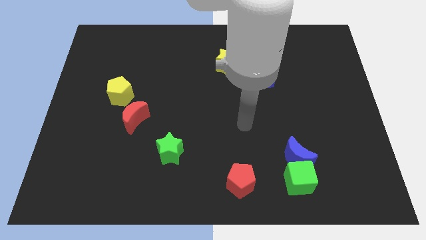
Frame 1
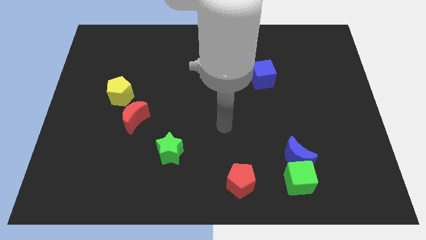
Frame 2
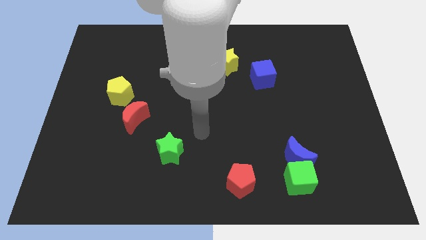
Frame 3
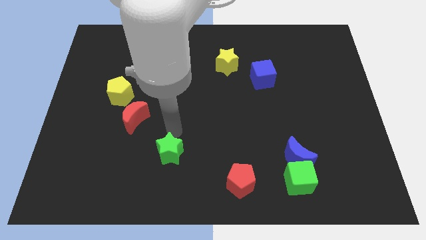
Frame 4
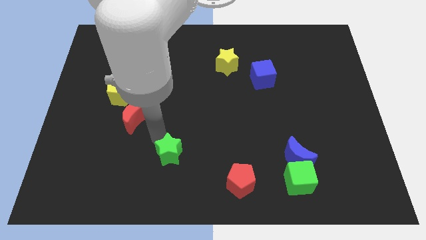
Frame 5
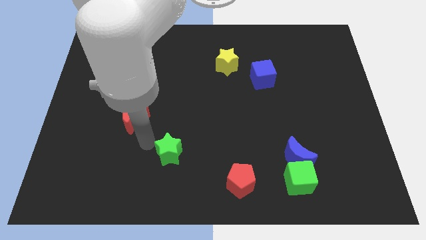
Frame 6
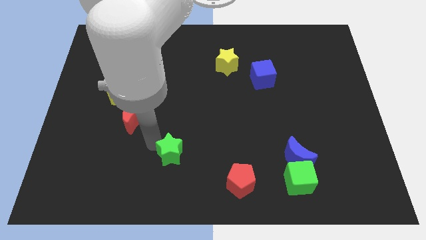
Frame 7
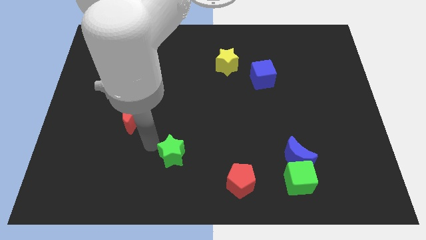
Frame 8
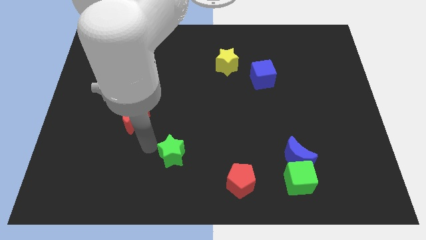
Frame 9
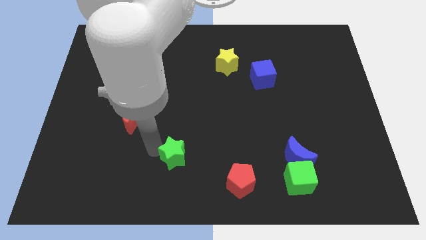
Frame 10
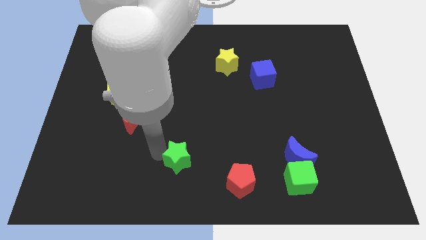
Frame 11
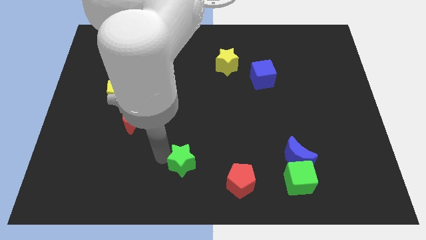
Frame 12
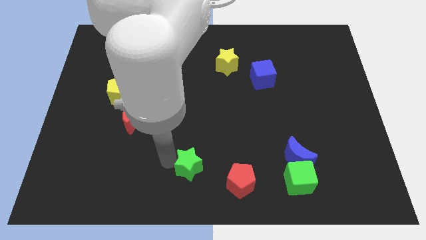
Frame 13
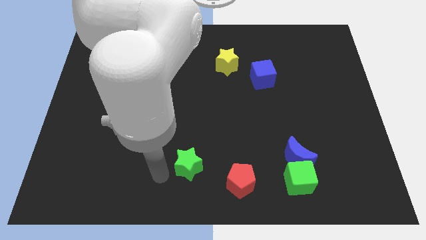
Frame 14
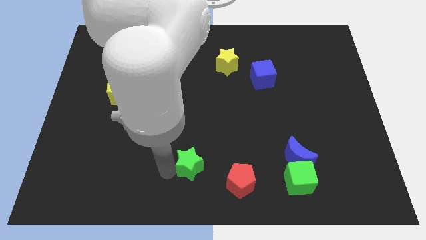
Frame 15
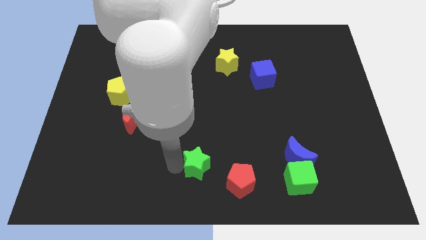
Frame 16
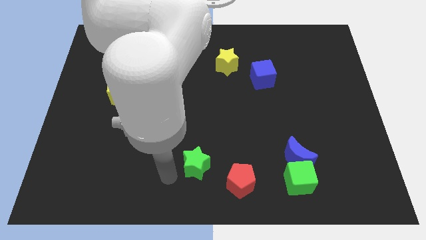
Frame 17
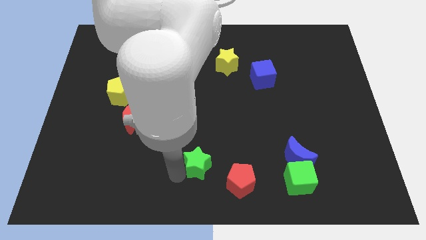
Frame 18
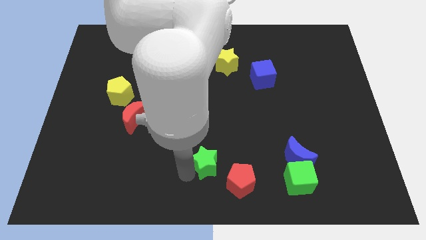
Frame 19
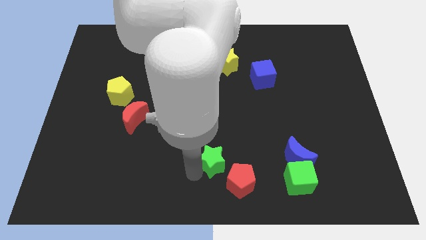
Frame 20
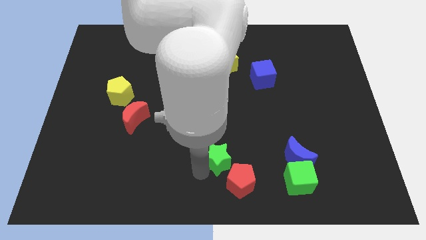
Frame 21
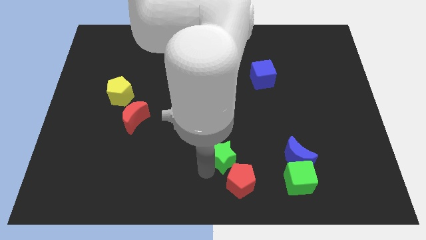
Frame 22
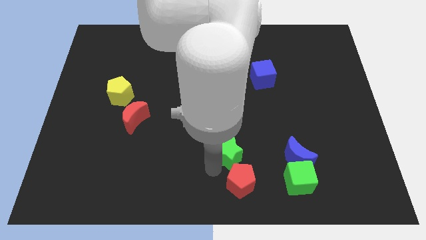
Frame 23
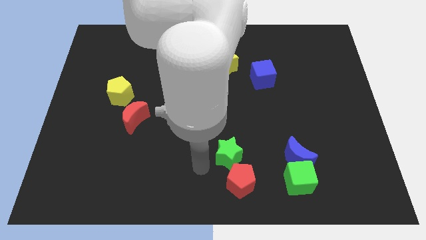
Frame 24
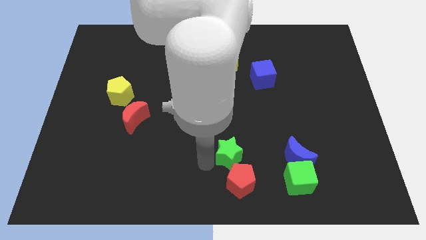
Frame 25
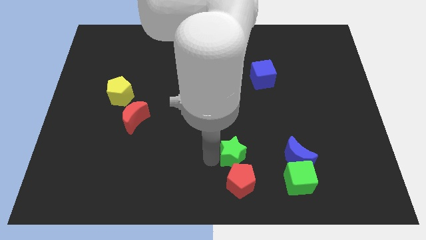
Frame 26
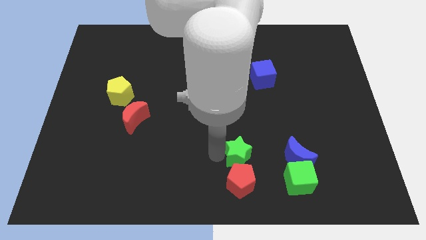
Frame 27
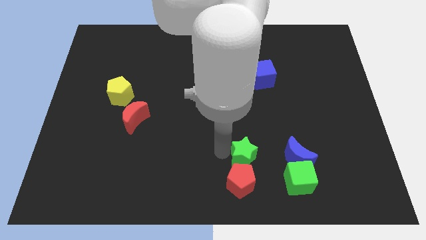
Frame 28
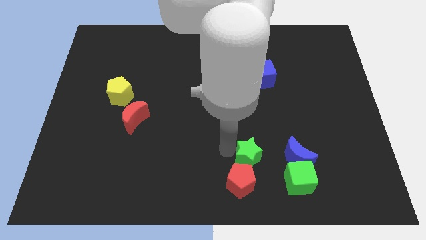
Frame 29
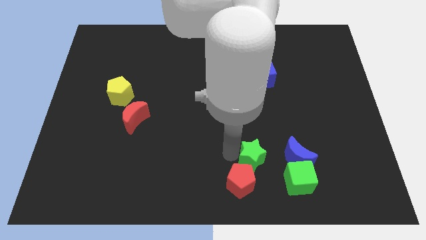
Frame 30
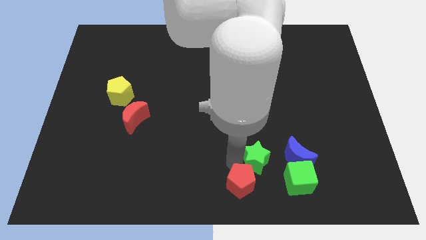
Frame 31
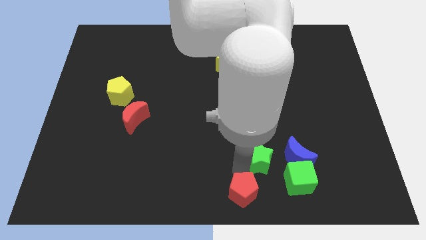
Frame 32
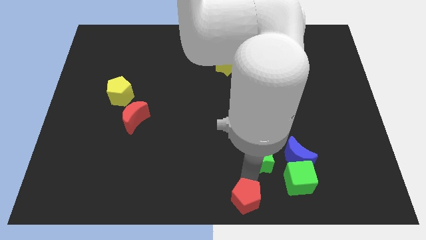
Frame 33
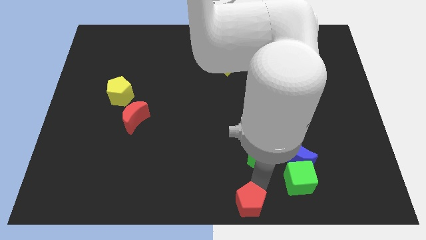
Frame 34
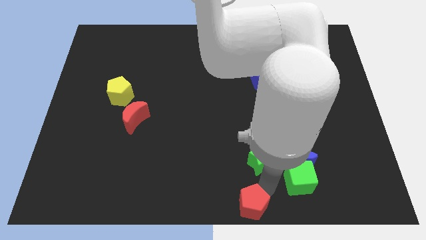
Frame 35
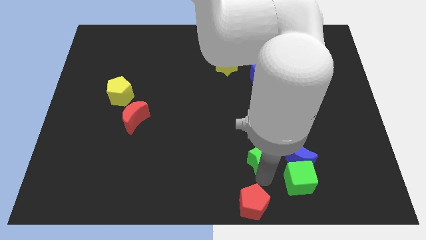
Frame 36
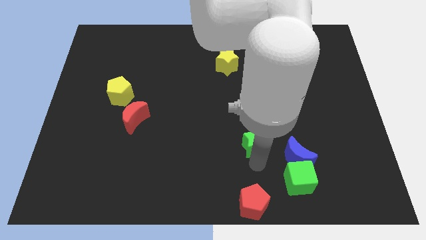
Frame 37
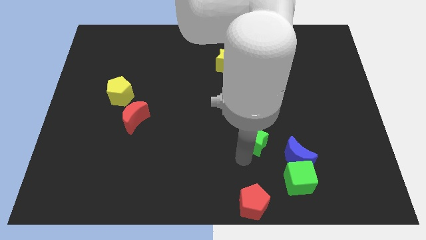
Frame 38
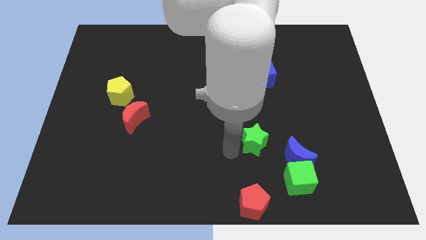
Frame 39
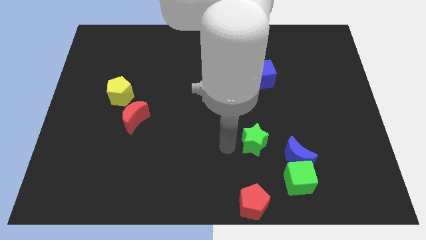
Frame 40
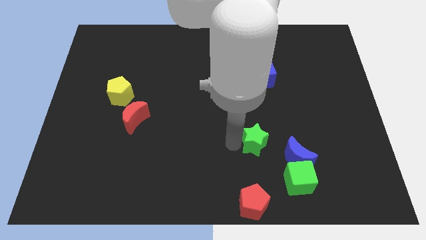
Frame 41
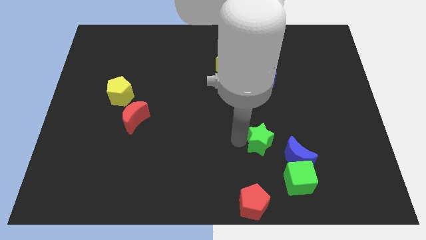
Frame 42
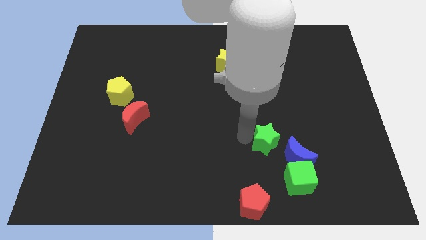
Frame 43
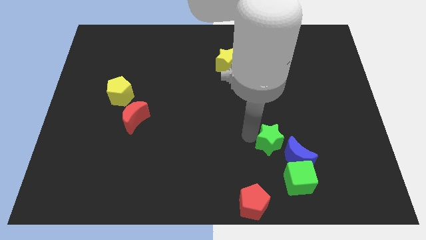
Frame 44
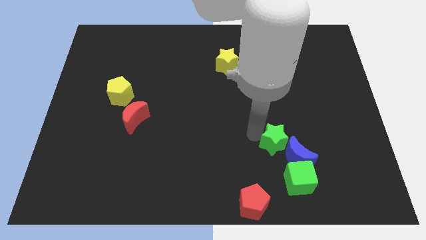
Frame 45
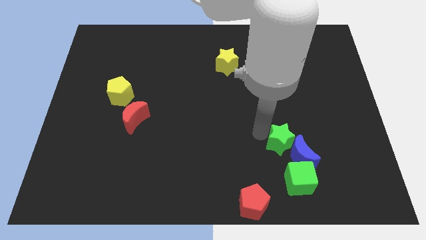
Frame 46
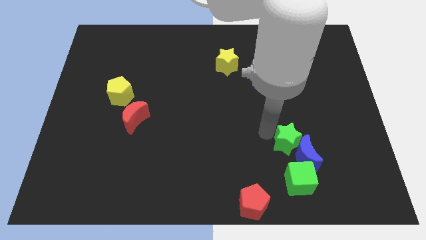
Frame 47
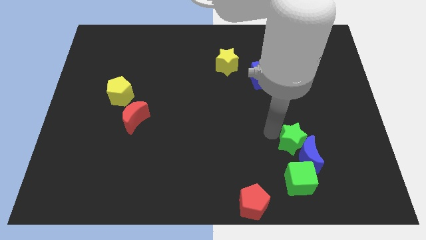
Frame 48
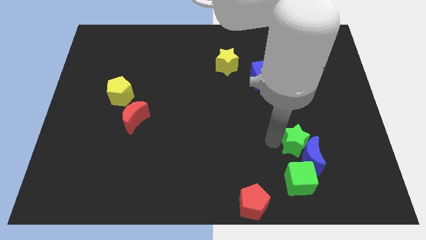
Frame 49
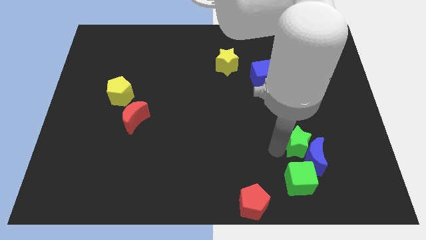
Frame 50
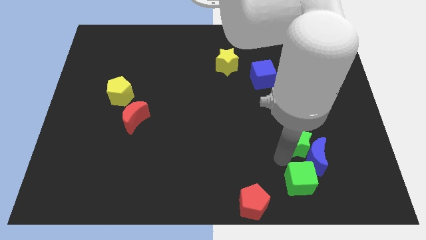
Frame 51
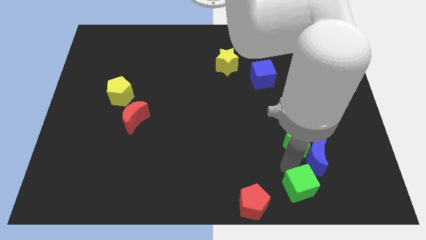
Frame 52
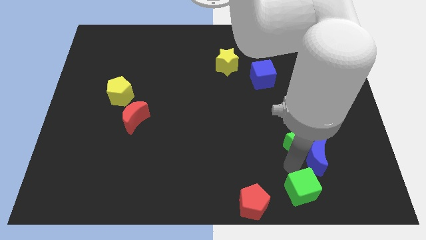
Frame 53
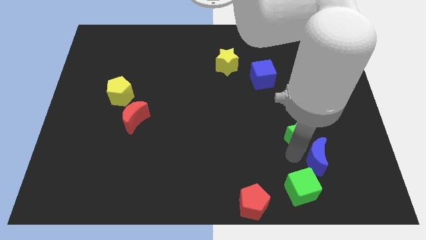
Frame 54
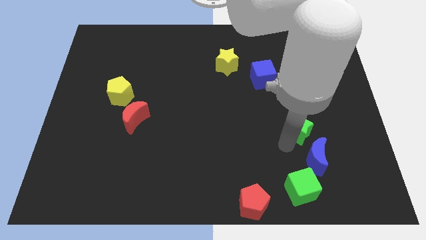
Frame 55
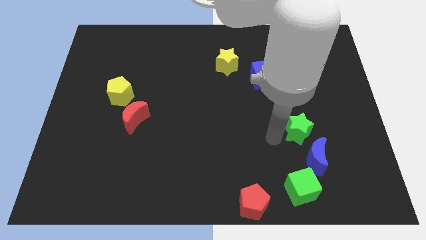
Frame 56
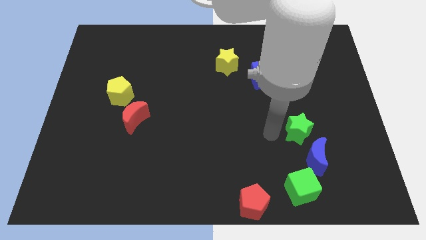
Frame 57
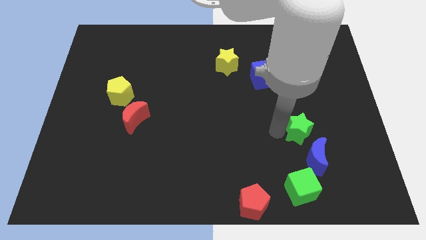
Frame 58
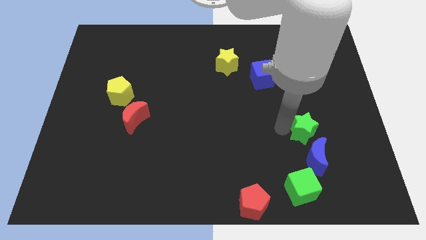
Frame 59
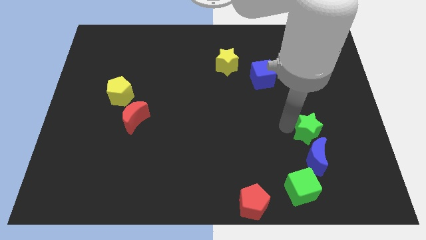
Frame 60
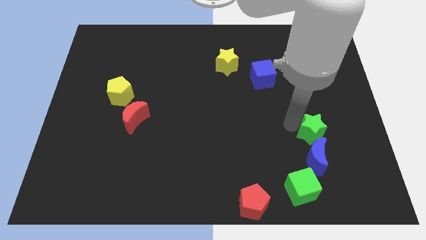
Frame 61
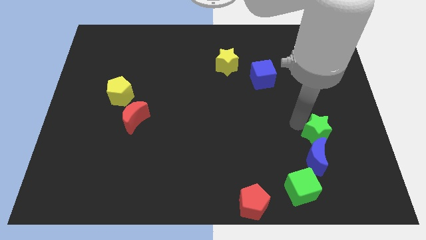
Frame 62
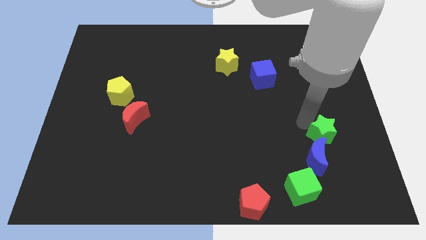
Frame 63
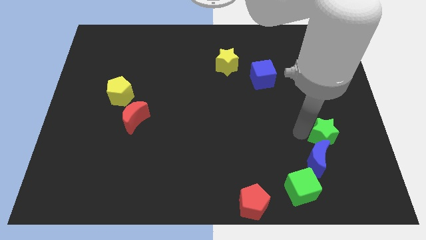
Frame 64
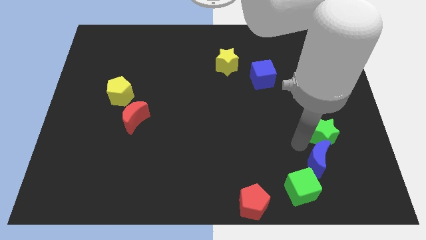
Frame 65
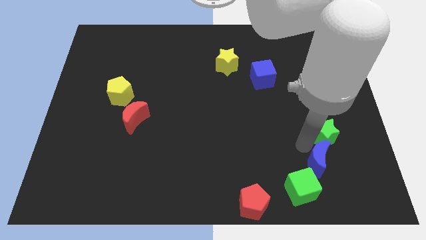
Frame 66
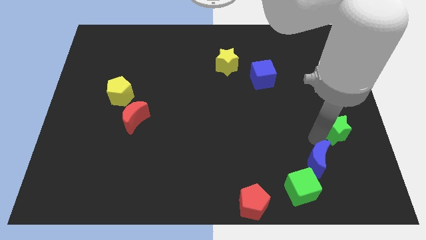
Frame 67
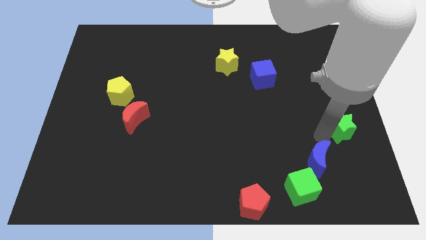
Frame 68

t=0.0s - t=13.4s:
put the green star to the center right
